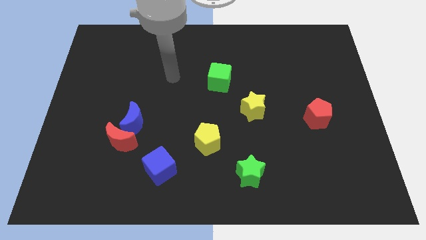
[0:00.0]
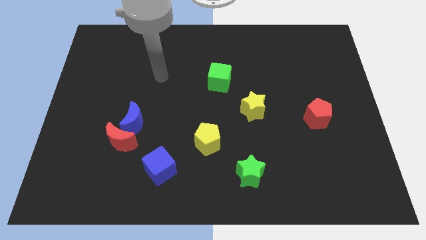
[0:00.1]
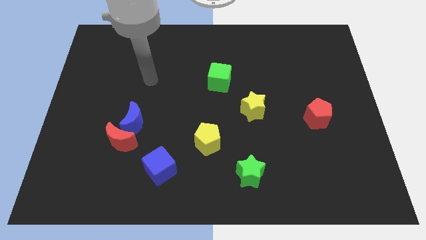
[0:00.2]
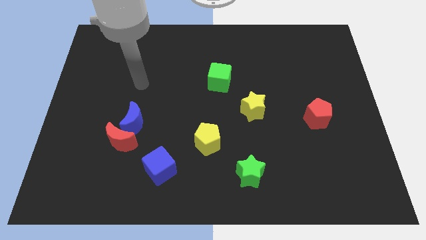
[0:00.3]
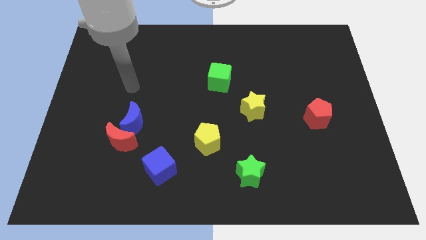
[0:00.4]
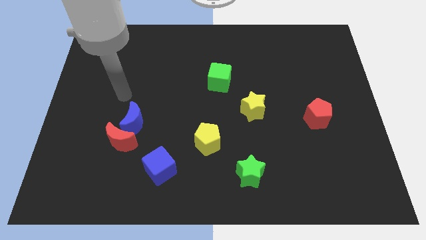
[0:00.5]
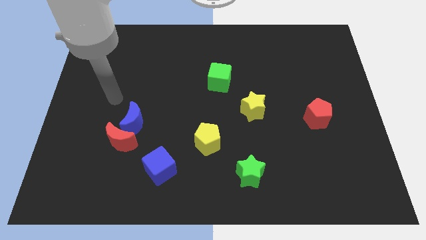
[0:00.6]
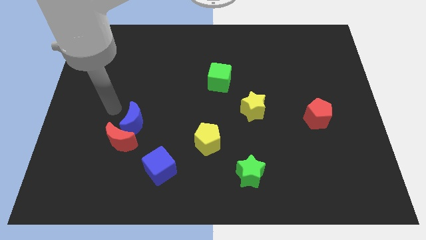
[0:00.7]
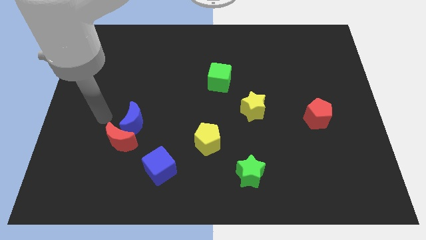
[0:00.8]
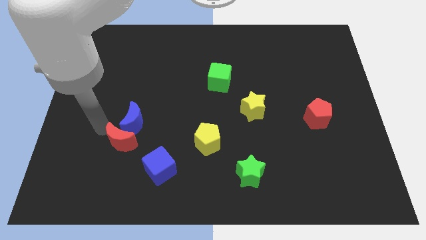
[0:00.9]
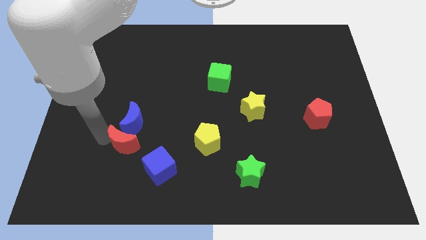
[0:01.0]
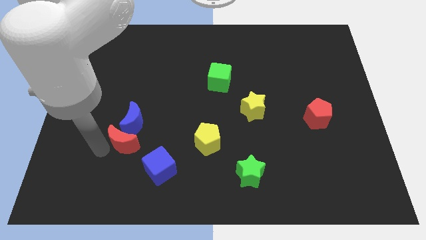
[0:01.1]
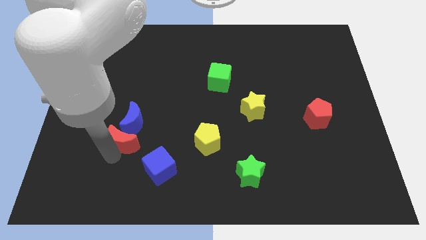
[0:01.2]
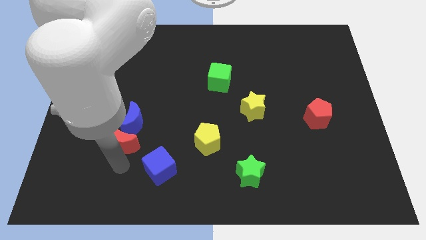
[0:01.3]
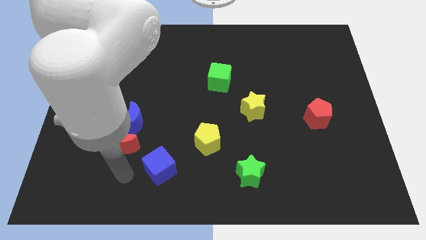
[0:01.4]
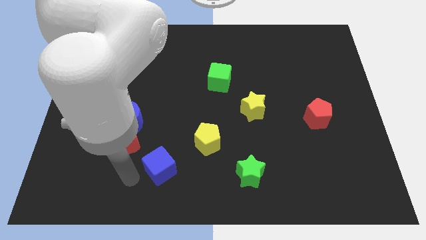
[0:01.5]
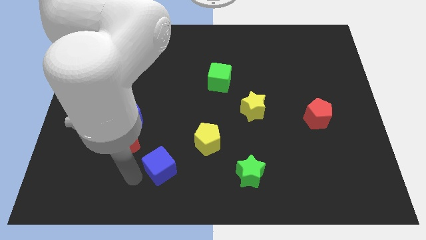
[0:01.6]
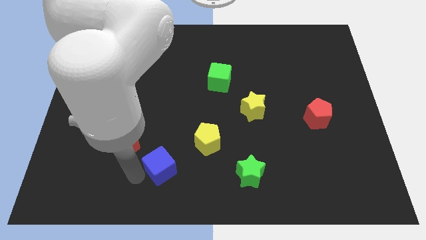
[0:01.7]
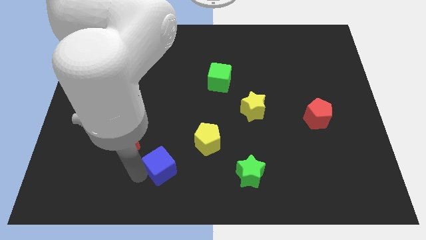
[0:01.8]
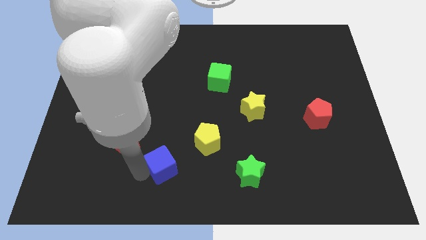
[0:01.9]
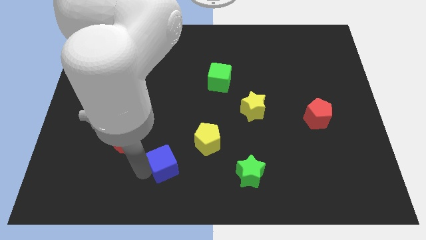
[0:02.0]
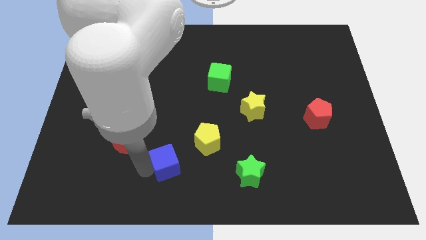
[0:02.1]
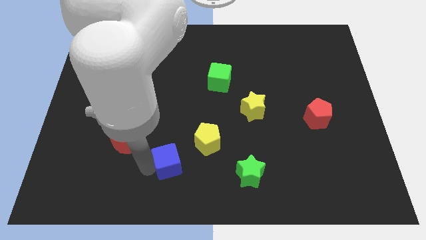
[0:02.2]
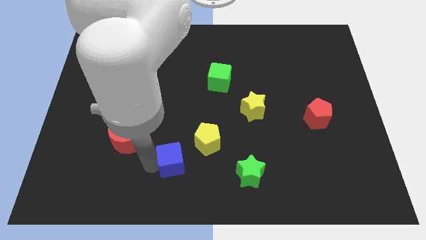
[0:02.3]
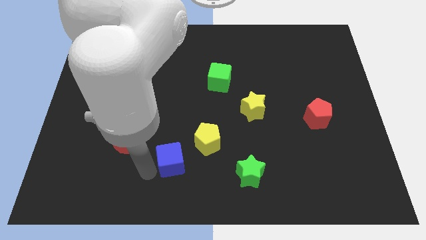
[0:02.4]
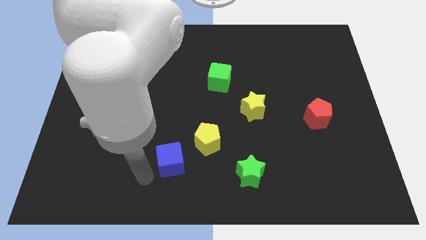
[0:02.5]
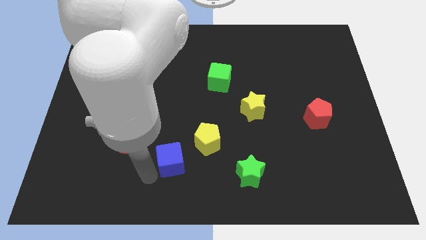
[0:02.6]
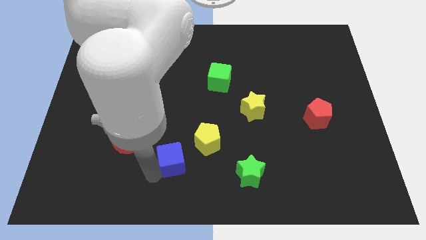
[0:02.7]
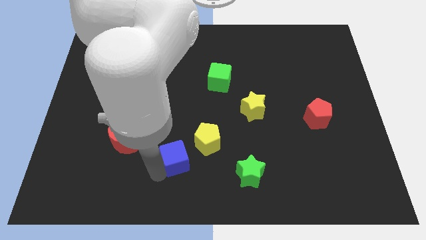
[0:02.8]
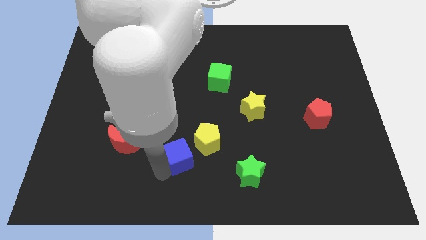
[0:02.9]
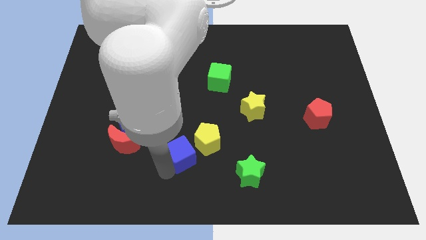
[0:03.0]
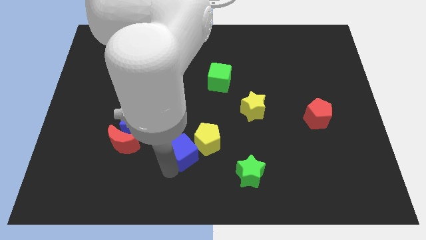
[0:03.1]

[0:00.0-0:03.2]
slide the blue cube towards the yellow pentagon

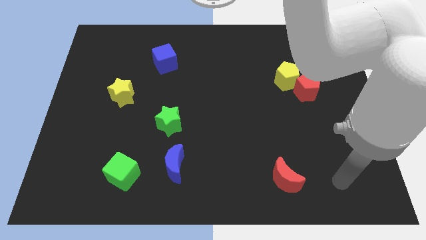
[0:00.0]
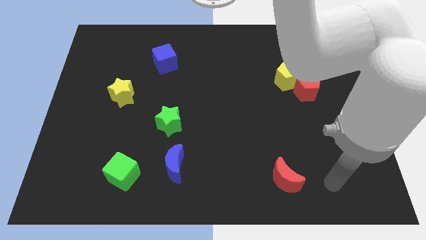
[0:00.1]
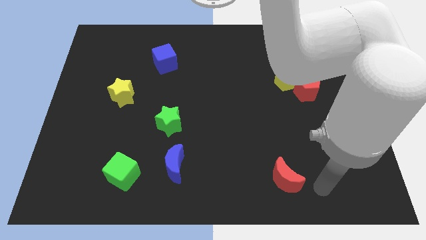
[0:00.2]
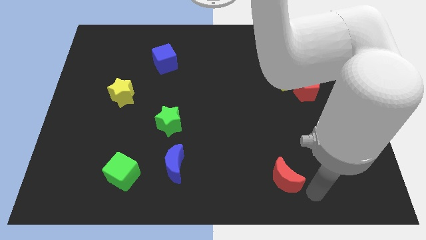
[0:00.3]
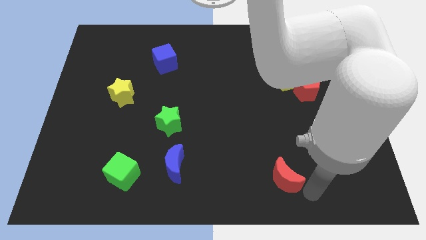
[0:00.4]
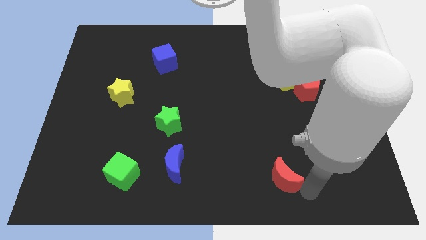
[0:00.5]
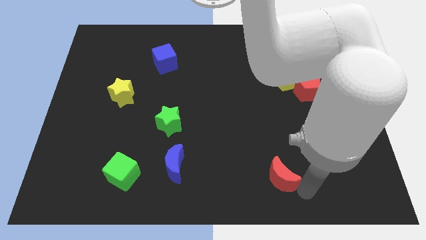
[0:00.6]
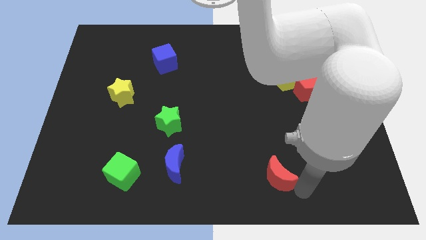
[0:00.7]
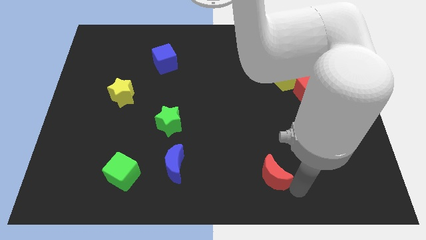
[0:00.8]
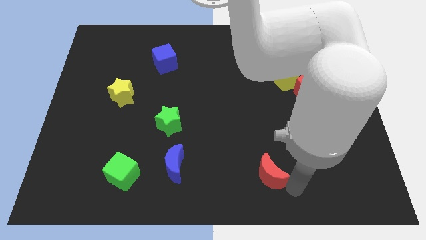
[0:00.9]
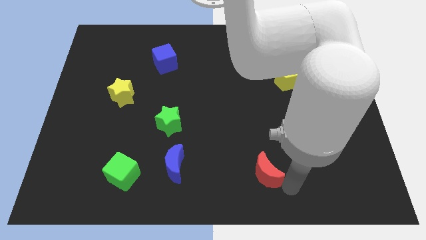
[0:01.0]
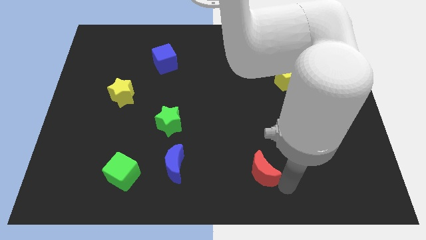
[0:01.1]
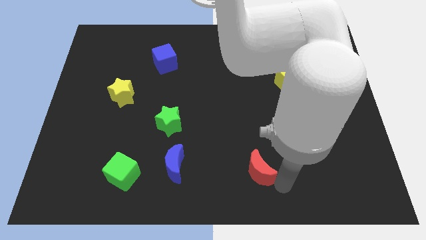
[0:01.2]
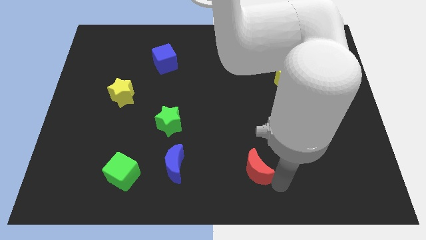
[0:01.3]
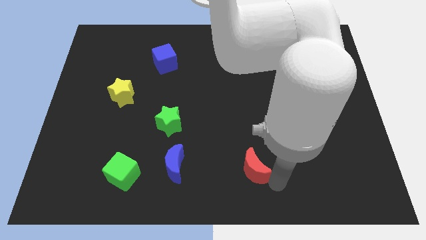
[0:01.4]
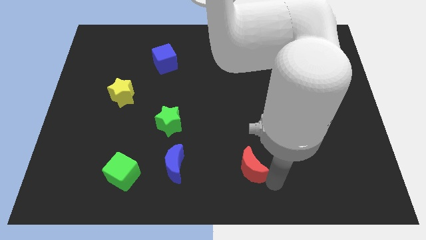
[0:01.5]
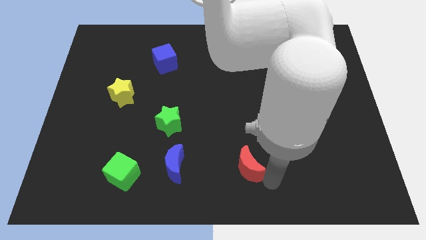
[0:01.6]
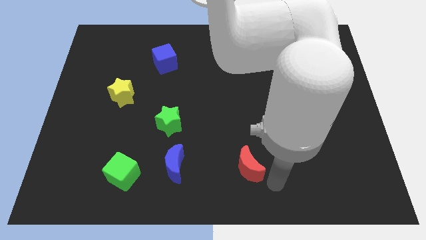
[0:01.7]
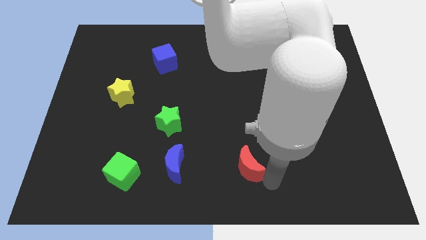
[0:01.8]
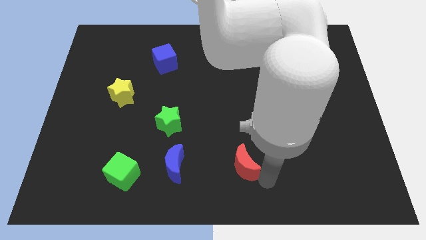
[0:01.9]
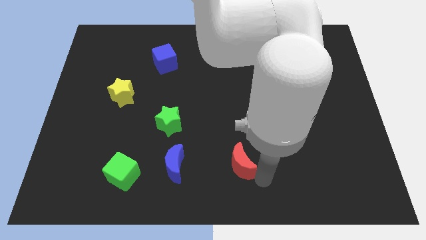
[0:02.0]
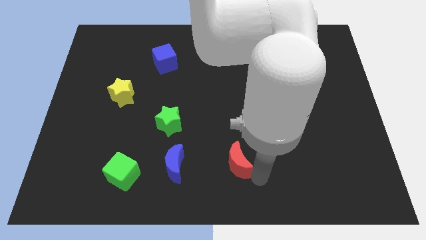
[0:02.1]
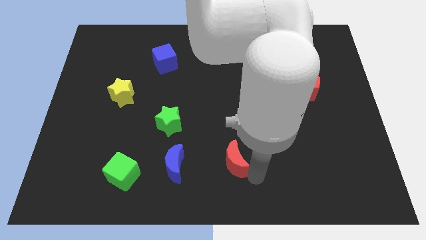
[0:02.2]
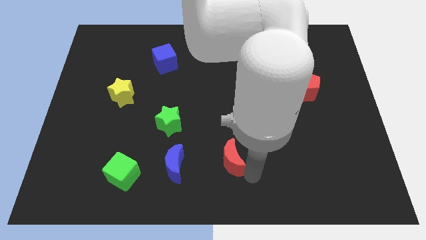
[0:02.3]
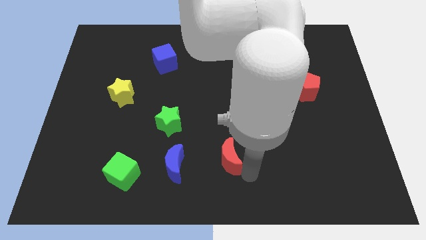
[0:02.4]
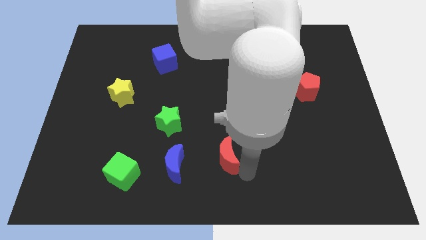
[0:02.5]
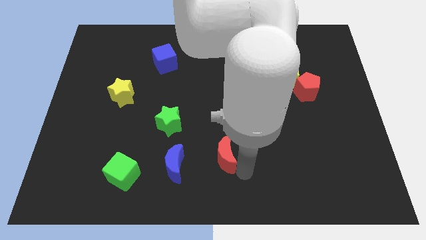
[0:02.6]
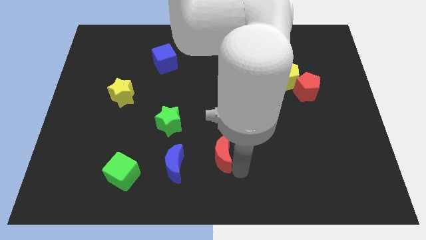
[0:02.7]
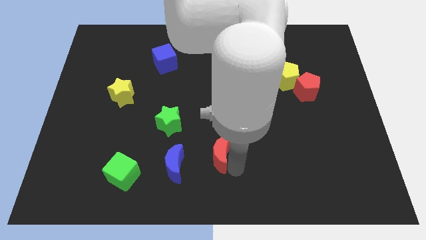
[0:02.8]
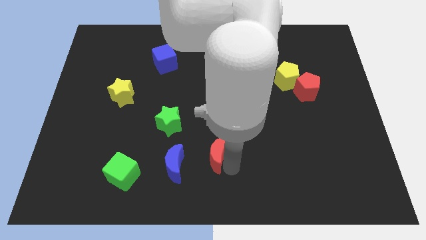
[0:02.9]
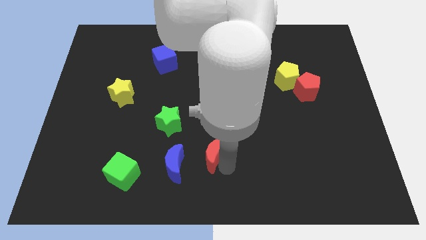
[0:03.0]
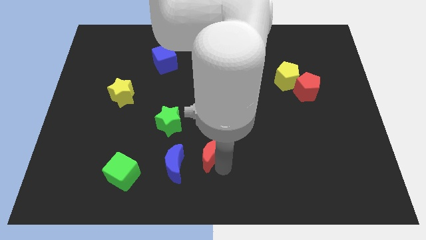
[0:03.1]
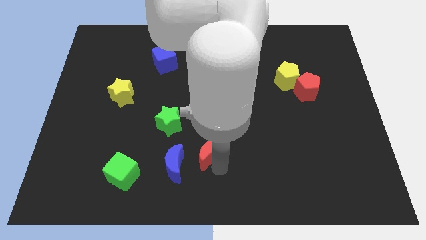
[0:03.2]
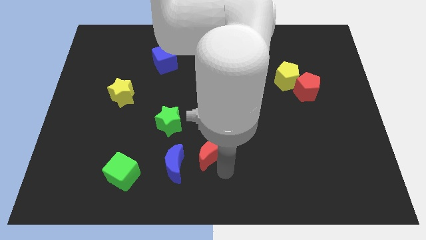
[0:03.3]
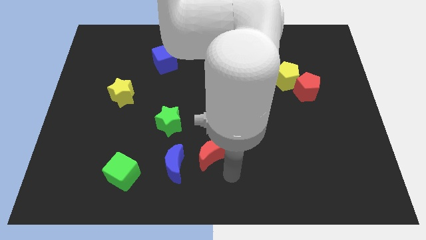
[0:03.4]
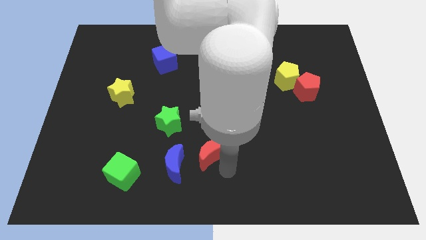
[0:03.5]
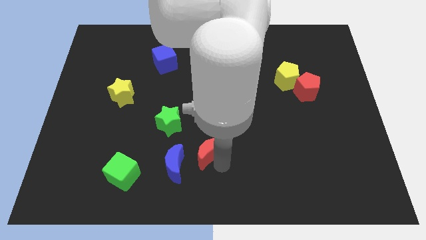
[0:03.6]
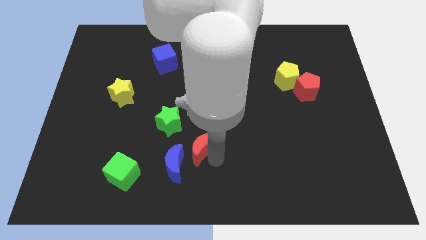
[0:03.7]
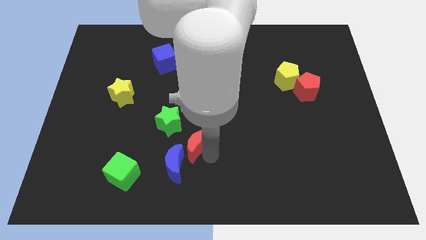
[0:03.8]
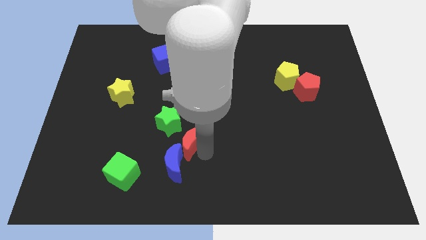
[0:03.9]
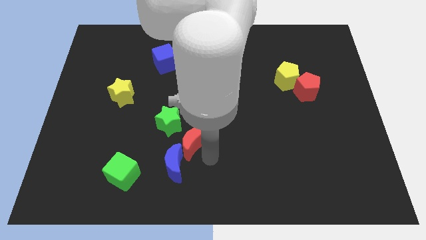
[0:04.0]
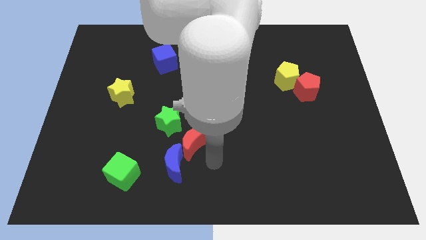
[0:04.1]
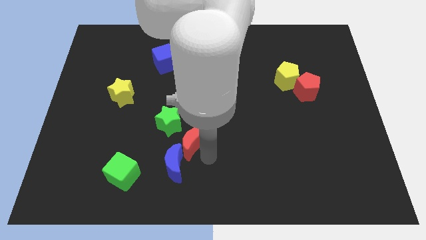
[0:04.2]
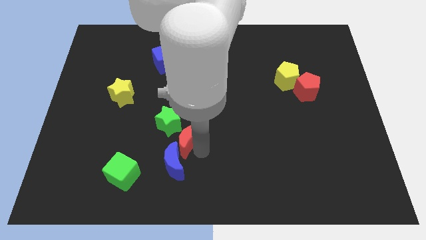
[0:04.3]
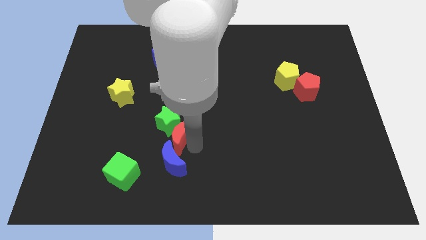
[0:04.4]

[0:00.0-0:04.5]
put the red moon close to the green star

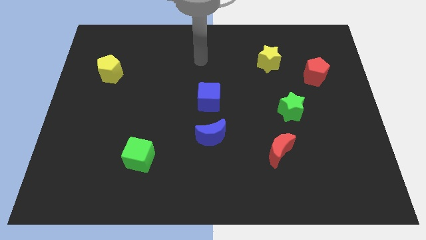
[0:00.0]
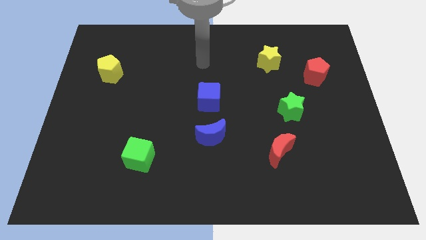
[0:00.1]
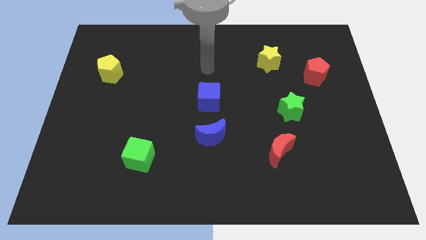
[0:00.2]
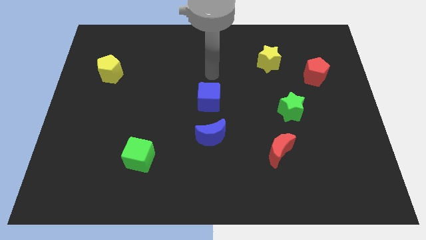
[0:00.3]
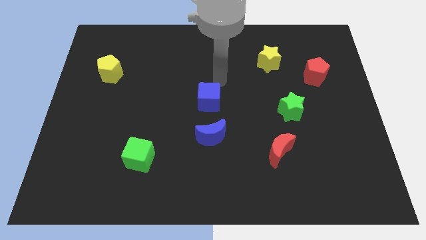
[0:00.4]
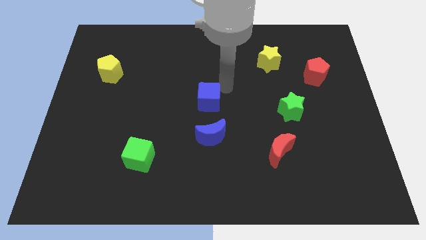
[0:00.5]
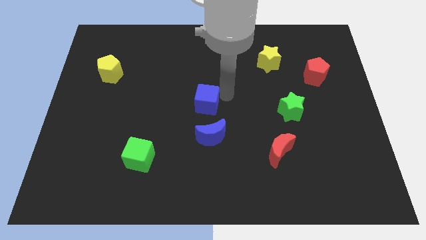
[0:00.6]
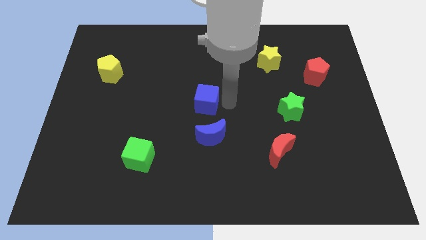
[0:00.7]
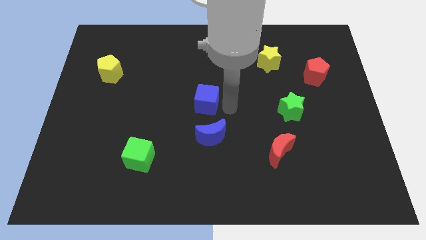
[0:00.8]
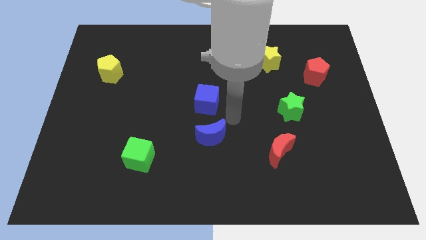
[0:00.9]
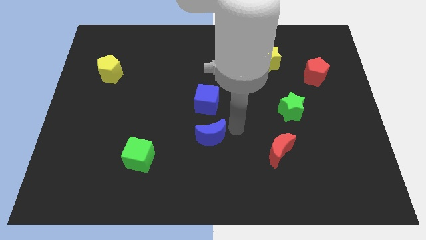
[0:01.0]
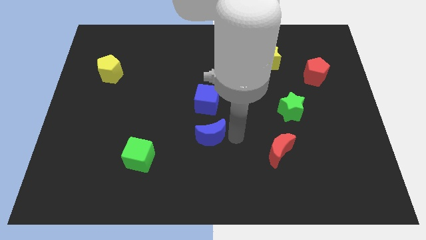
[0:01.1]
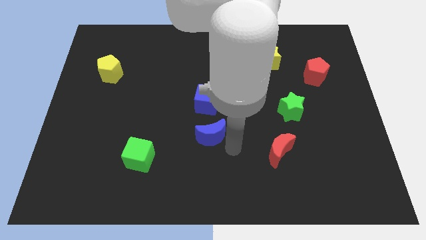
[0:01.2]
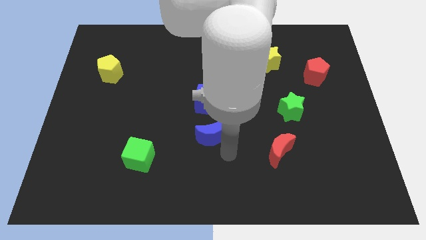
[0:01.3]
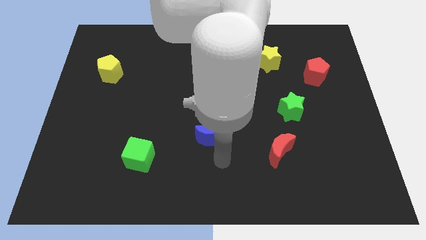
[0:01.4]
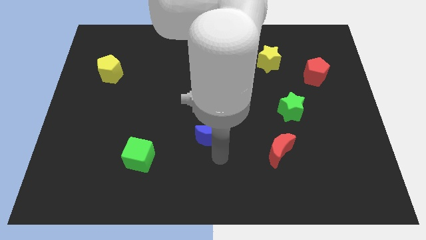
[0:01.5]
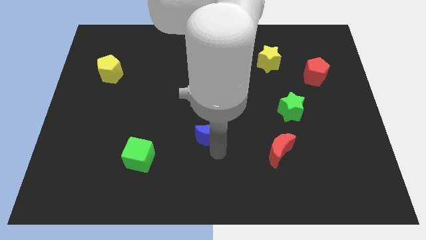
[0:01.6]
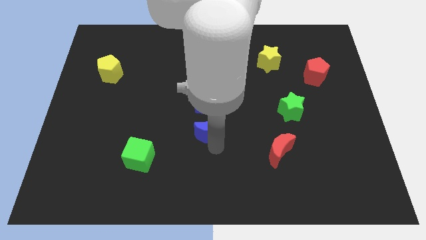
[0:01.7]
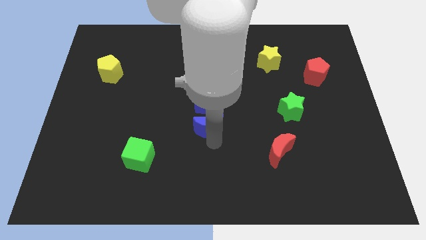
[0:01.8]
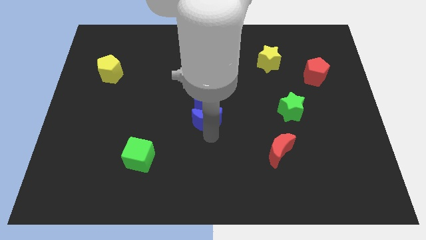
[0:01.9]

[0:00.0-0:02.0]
move the blue moon towards the blue cube
